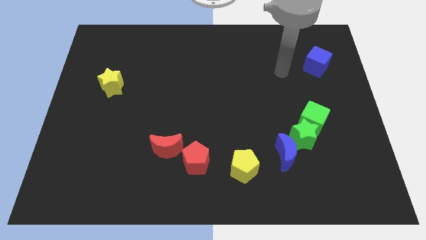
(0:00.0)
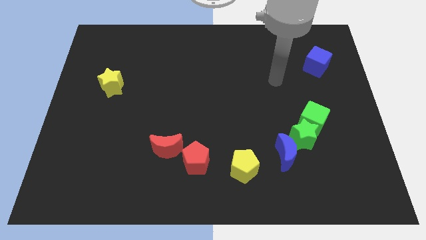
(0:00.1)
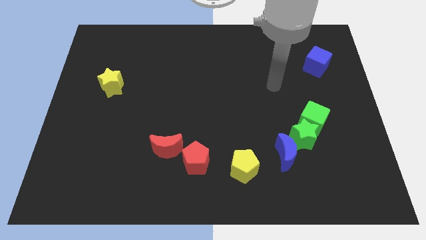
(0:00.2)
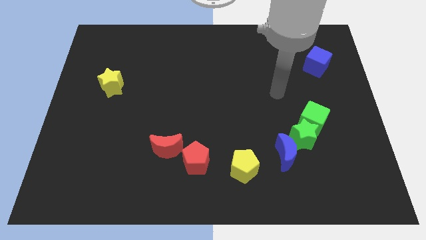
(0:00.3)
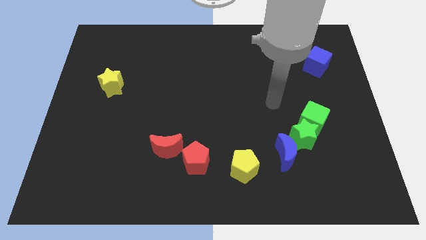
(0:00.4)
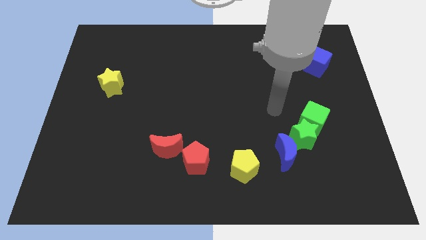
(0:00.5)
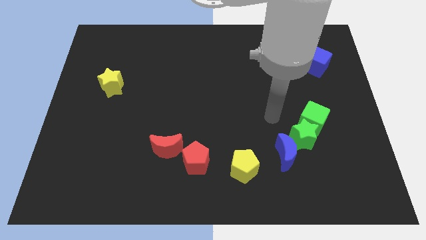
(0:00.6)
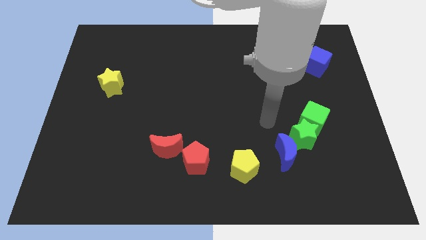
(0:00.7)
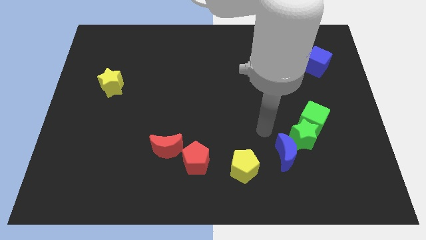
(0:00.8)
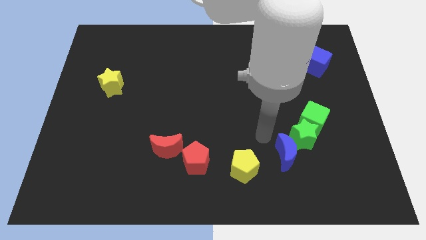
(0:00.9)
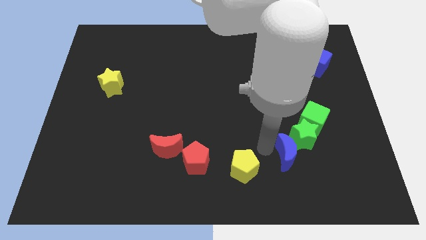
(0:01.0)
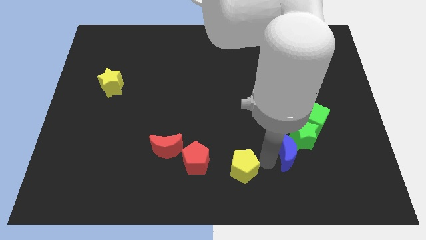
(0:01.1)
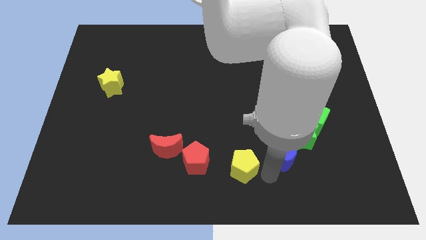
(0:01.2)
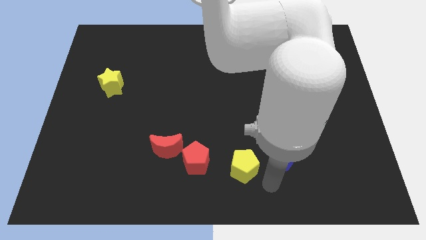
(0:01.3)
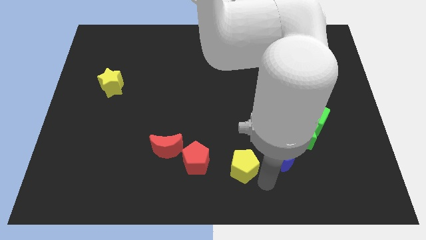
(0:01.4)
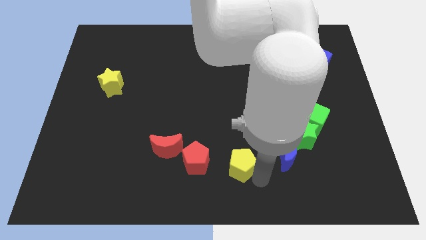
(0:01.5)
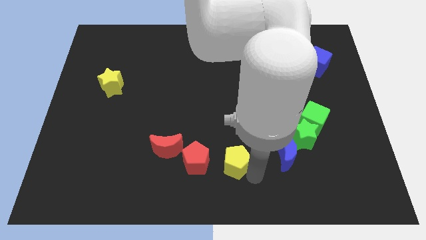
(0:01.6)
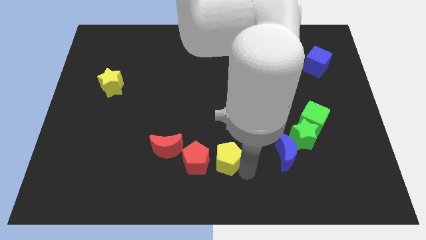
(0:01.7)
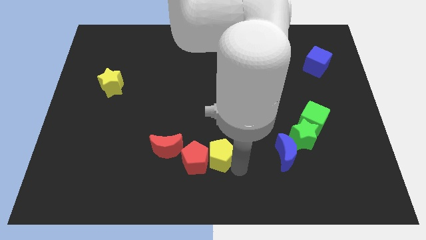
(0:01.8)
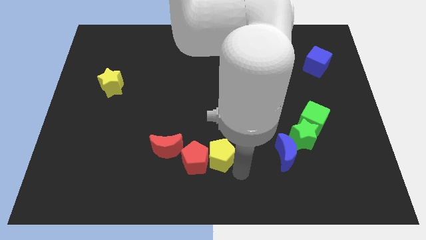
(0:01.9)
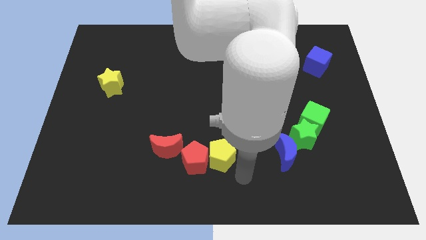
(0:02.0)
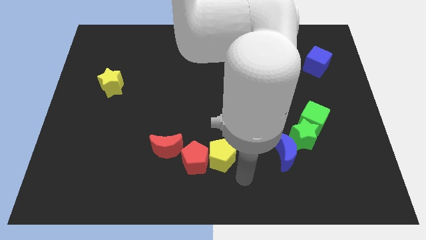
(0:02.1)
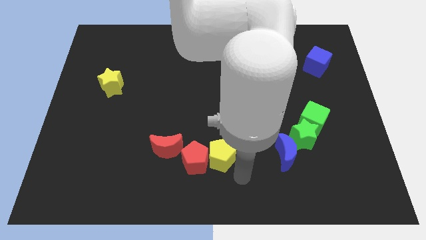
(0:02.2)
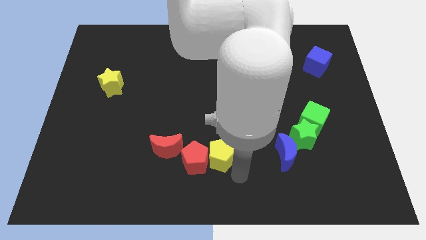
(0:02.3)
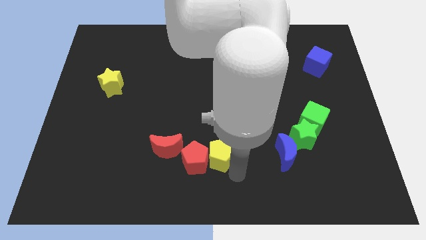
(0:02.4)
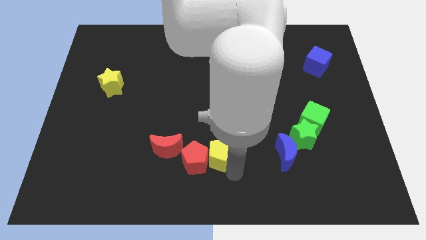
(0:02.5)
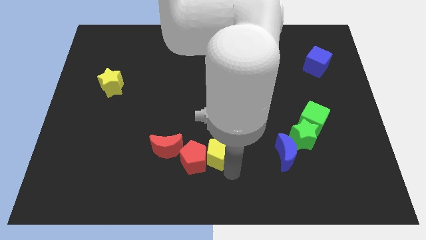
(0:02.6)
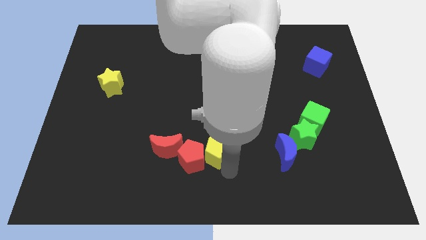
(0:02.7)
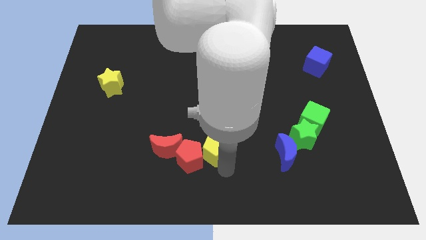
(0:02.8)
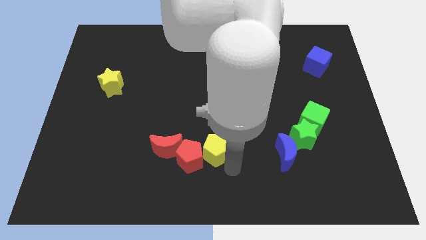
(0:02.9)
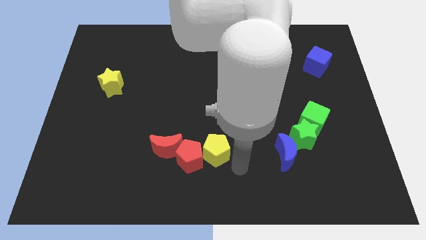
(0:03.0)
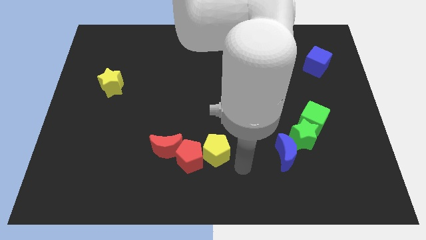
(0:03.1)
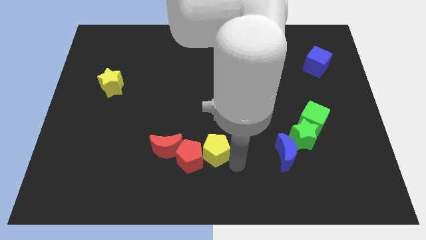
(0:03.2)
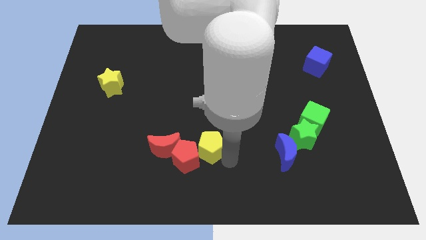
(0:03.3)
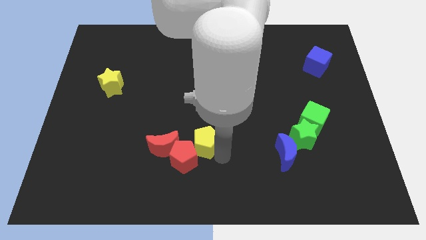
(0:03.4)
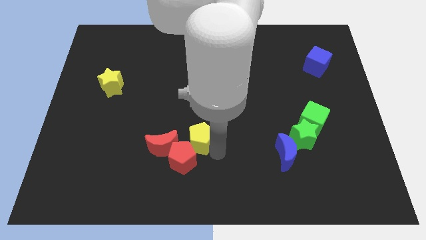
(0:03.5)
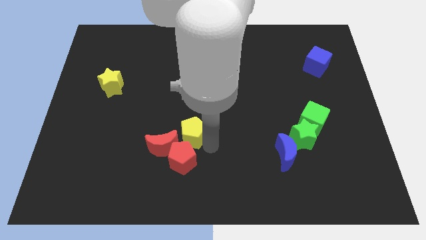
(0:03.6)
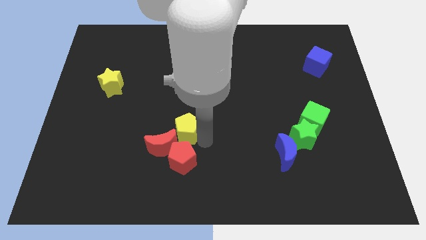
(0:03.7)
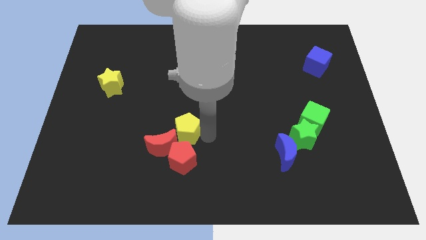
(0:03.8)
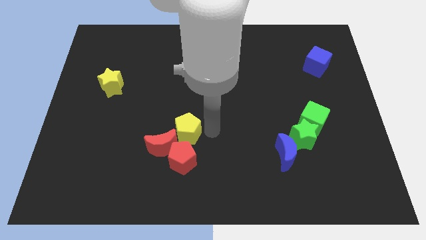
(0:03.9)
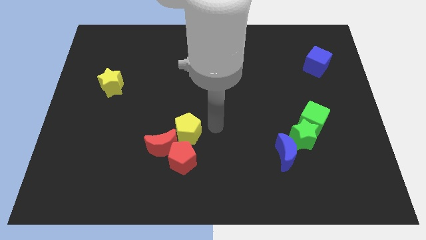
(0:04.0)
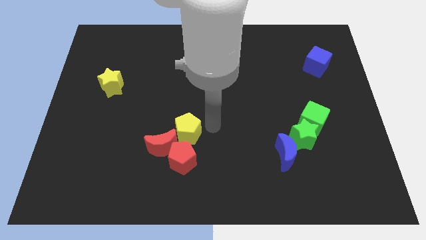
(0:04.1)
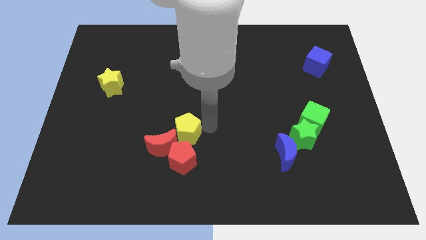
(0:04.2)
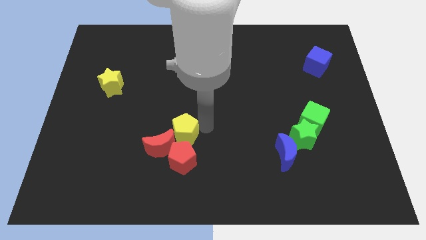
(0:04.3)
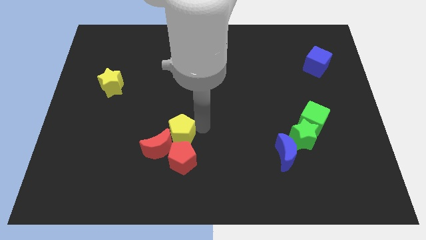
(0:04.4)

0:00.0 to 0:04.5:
move the yellow pentagon diagonally up and to the left of the red pentagon

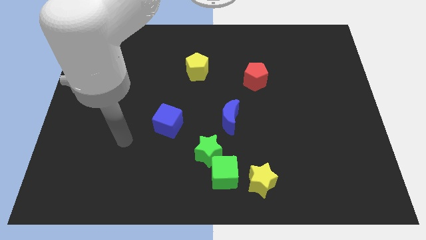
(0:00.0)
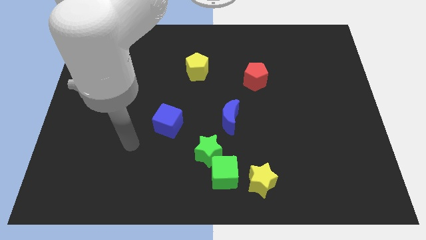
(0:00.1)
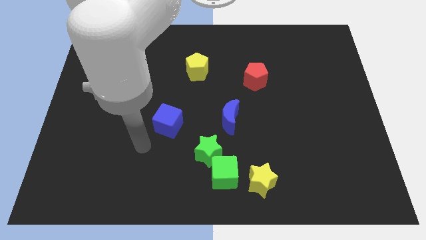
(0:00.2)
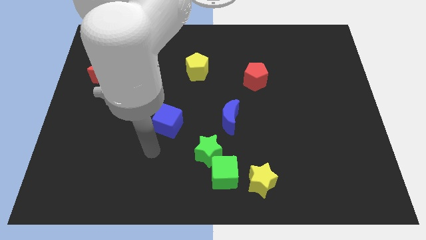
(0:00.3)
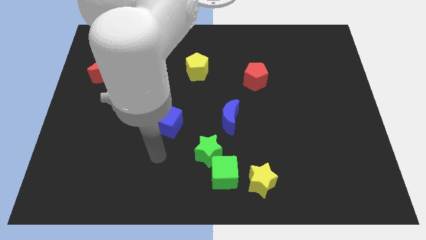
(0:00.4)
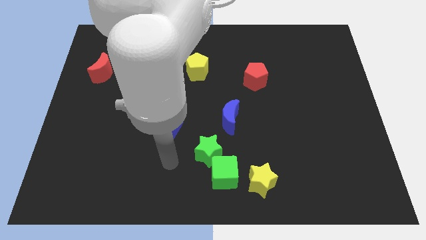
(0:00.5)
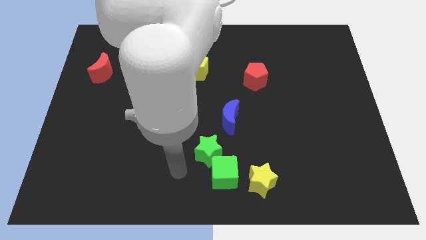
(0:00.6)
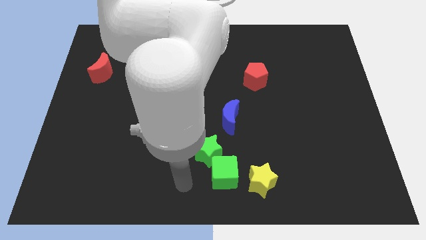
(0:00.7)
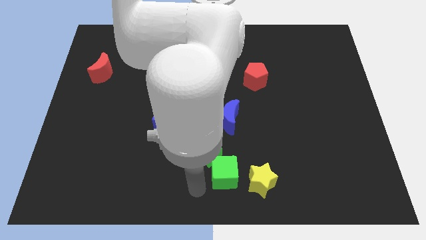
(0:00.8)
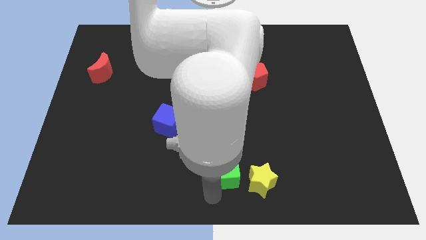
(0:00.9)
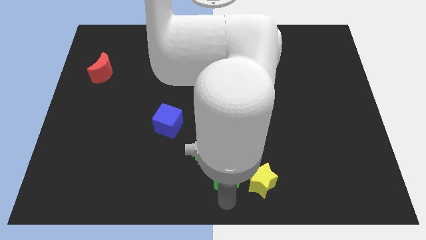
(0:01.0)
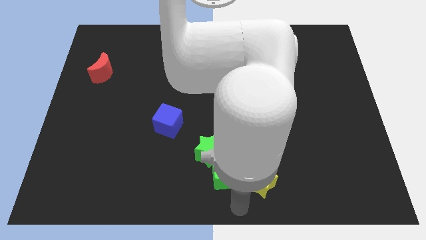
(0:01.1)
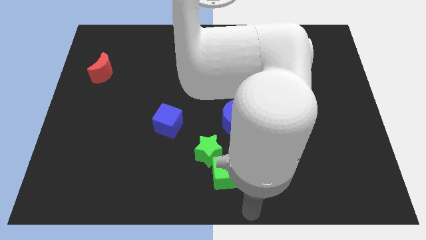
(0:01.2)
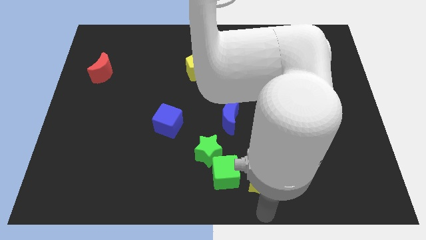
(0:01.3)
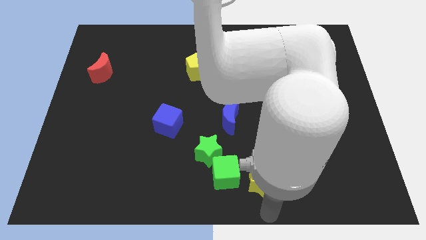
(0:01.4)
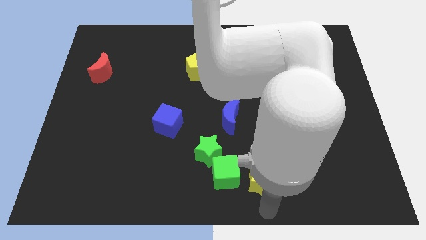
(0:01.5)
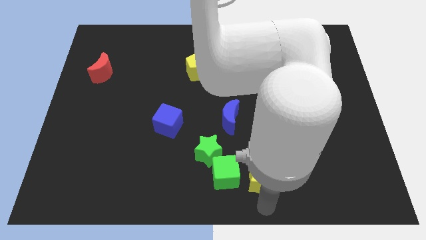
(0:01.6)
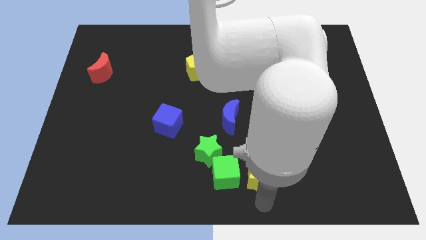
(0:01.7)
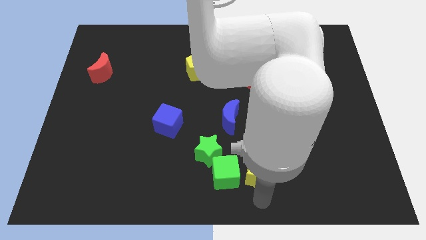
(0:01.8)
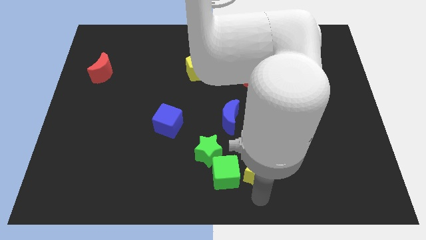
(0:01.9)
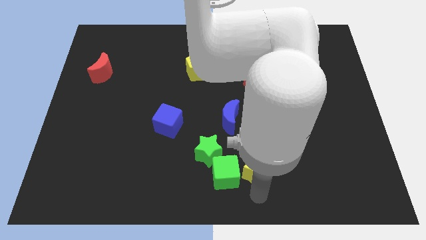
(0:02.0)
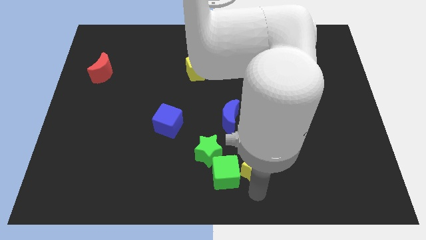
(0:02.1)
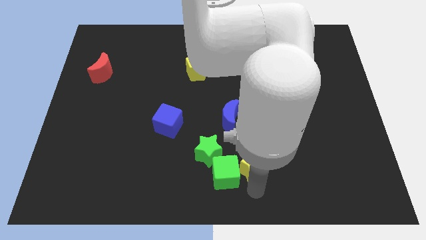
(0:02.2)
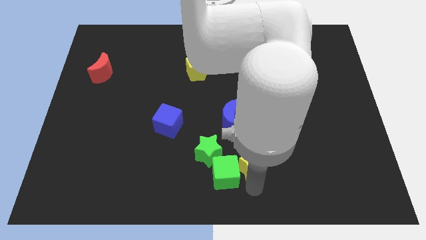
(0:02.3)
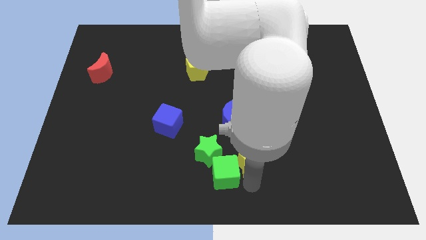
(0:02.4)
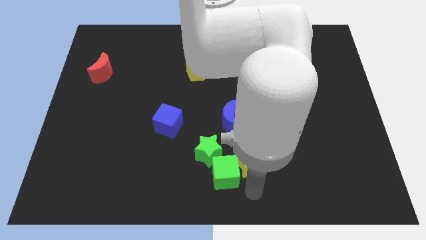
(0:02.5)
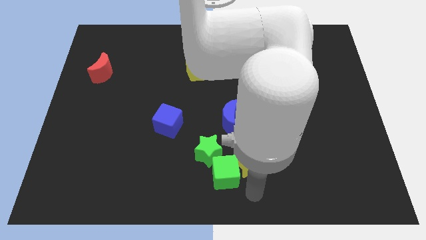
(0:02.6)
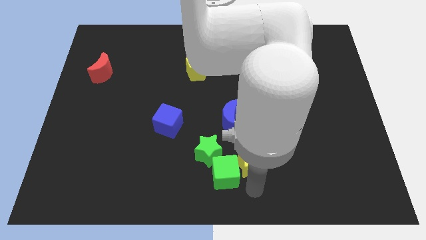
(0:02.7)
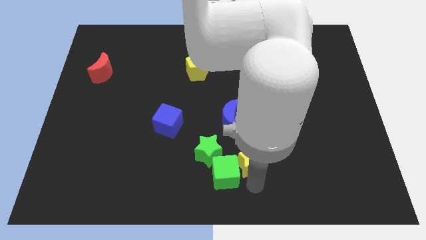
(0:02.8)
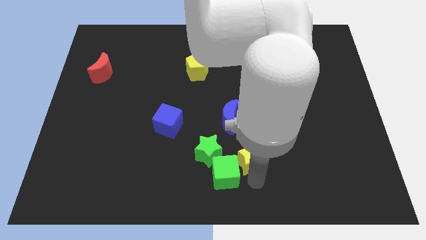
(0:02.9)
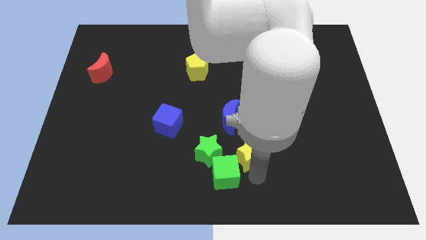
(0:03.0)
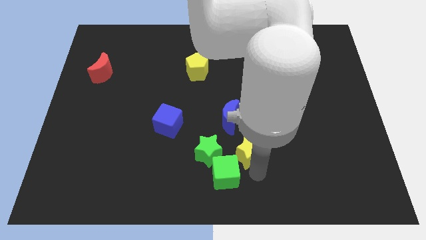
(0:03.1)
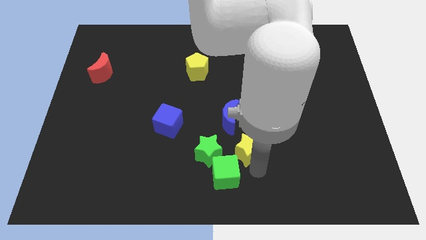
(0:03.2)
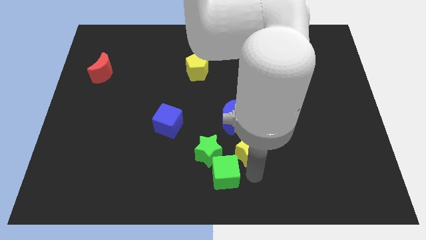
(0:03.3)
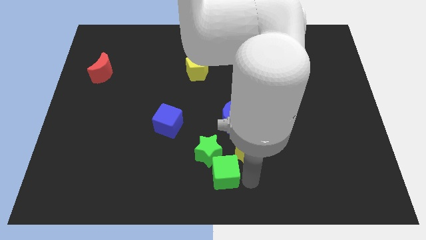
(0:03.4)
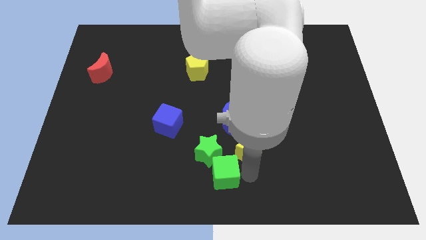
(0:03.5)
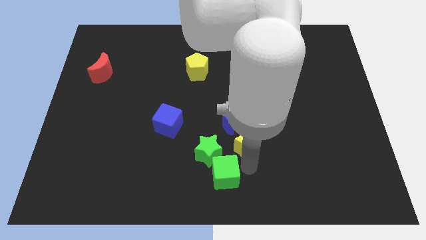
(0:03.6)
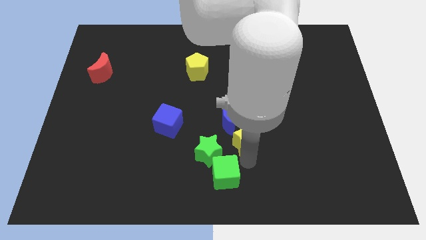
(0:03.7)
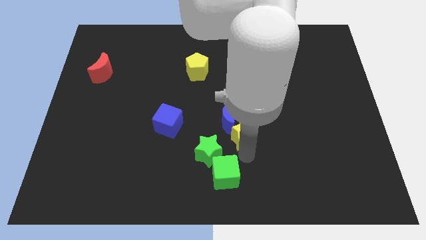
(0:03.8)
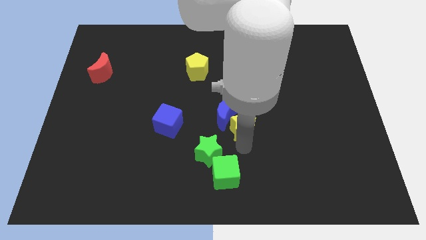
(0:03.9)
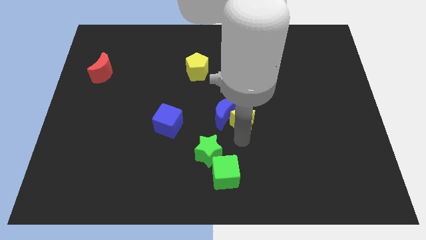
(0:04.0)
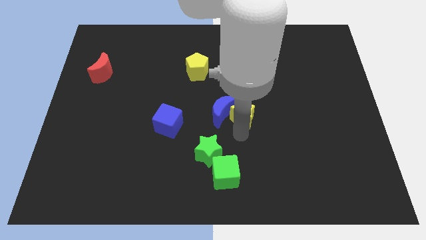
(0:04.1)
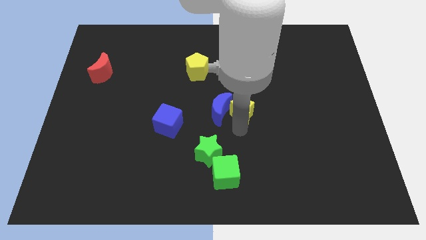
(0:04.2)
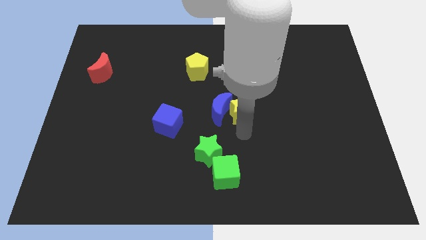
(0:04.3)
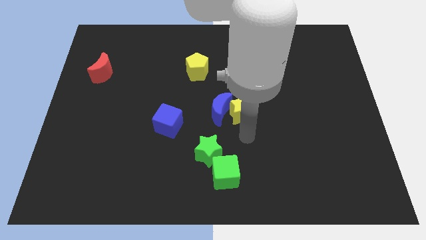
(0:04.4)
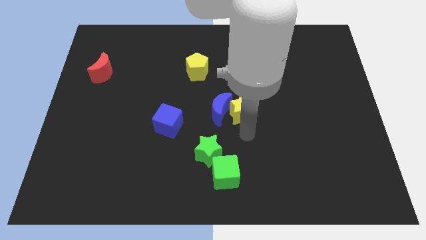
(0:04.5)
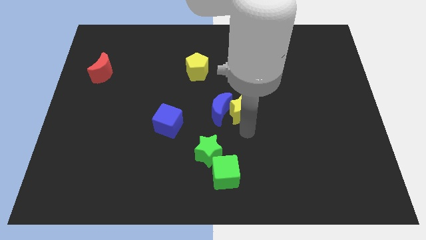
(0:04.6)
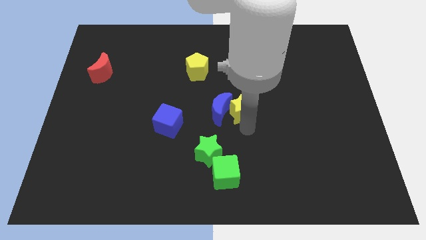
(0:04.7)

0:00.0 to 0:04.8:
move the yellow star diagonally down and to the left of the red pentagon
